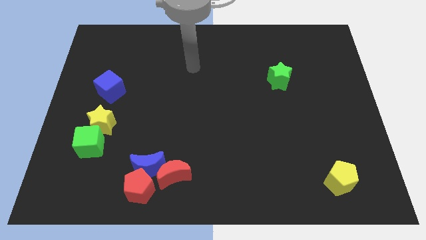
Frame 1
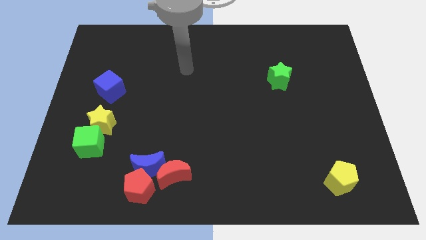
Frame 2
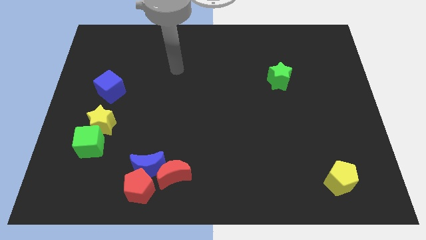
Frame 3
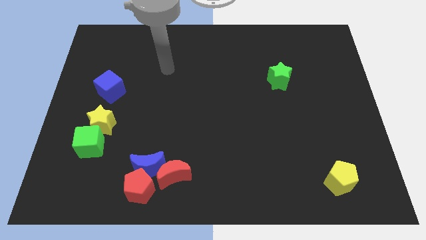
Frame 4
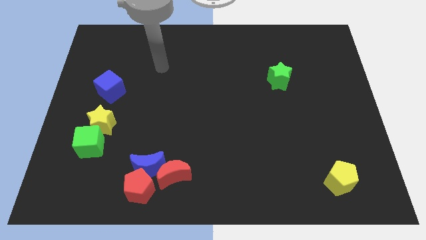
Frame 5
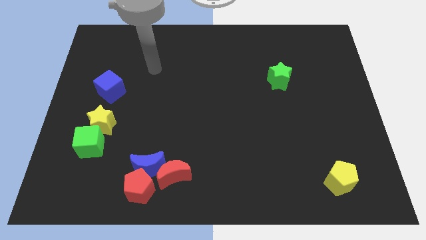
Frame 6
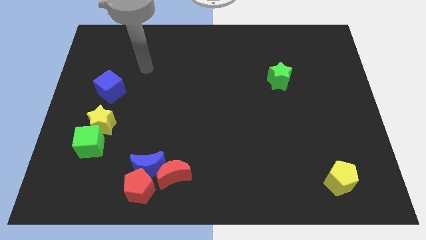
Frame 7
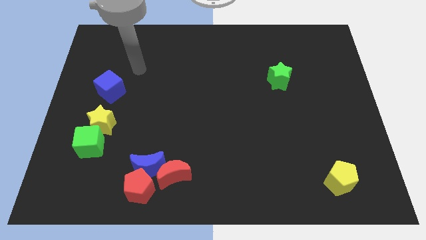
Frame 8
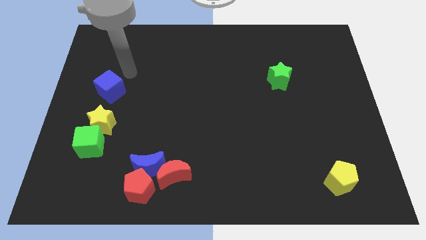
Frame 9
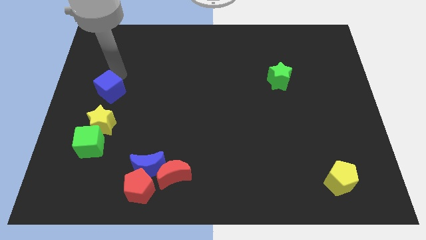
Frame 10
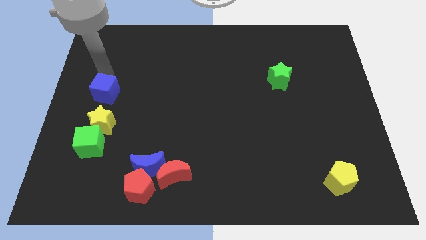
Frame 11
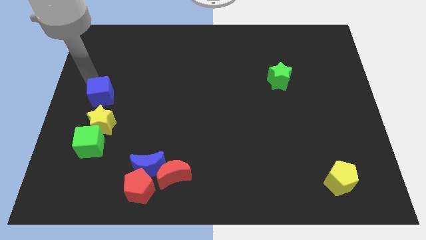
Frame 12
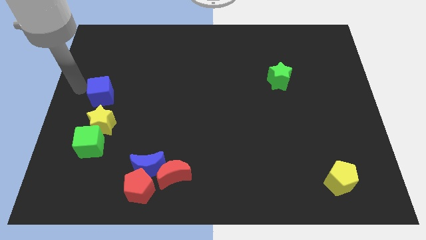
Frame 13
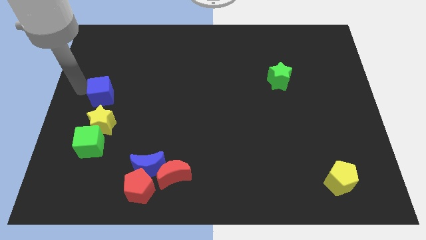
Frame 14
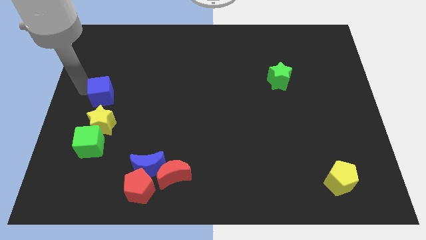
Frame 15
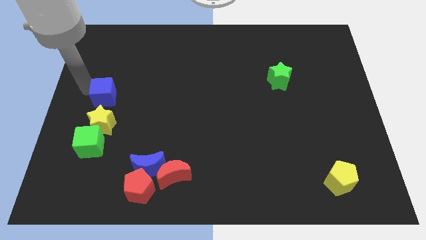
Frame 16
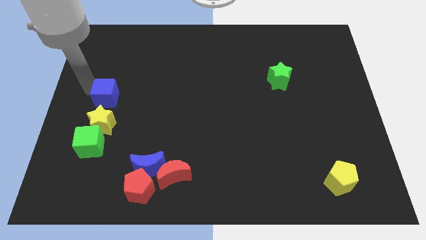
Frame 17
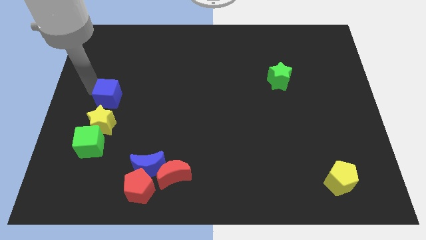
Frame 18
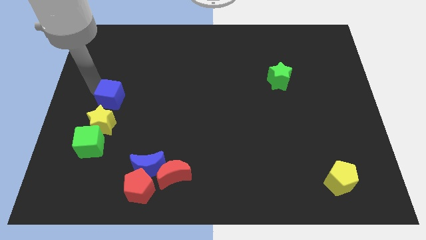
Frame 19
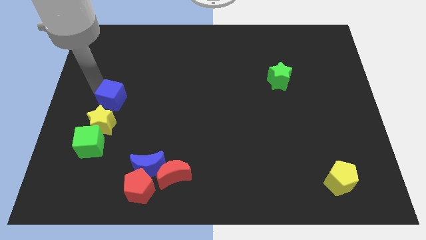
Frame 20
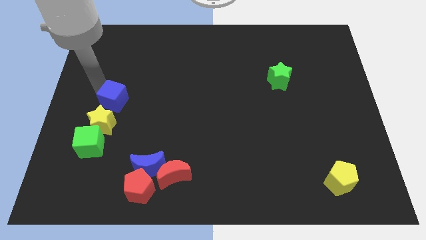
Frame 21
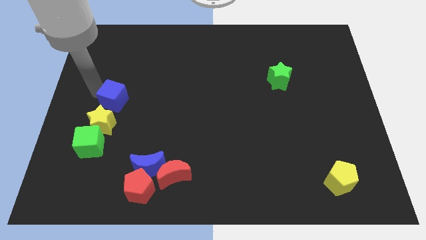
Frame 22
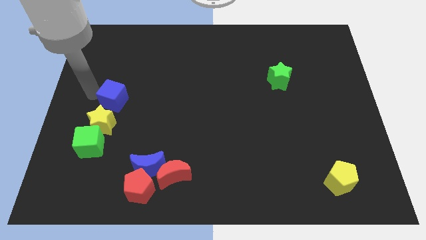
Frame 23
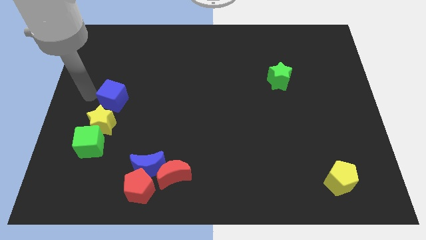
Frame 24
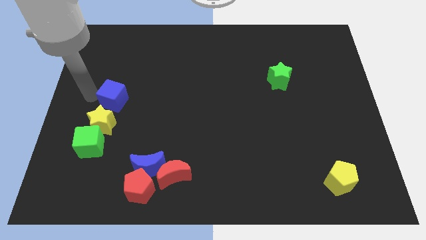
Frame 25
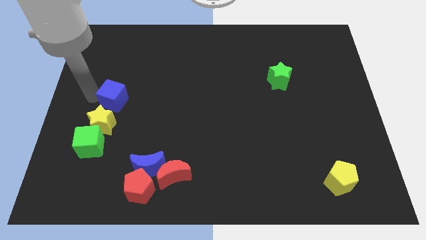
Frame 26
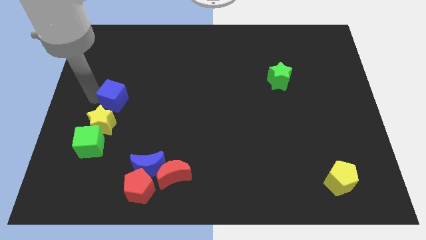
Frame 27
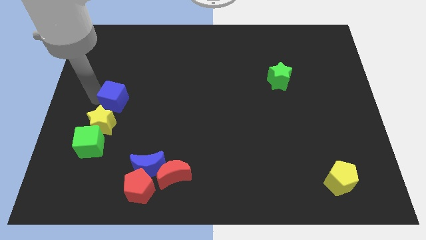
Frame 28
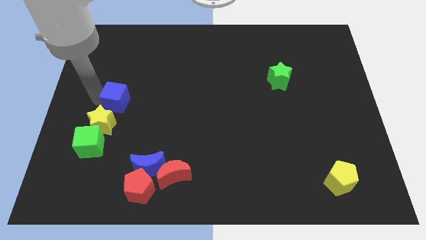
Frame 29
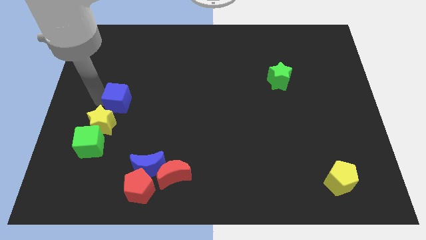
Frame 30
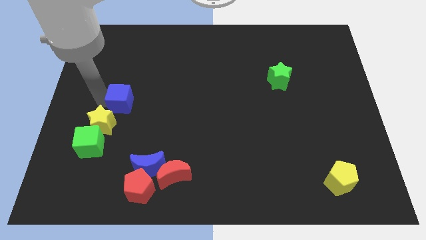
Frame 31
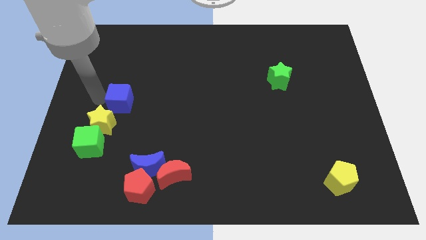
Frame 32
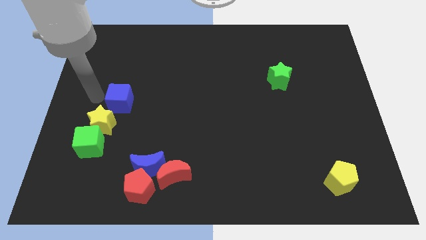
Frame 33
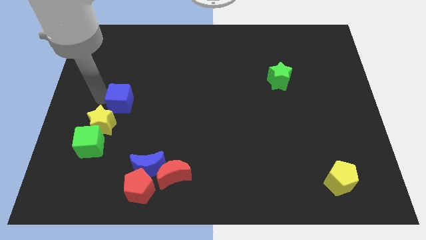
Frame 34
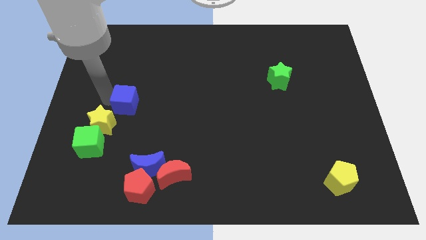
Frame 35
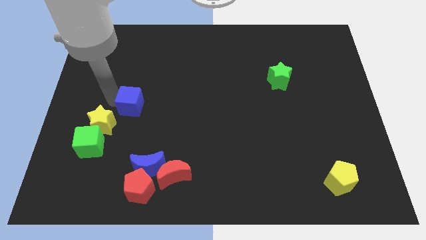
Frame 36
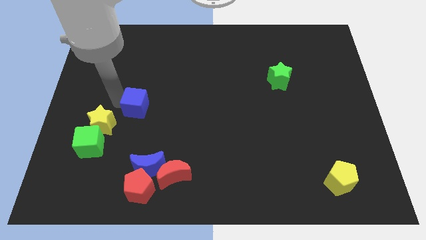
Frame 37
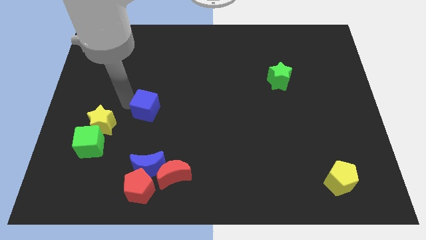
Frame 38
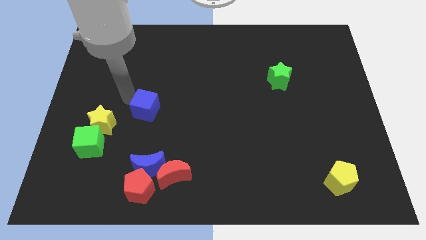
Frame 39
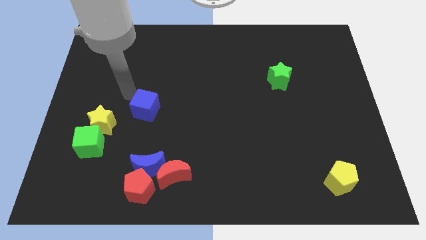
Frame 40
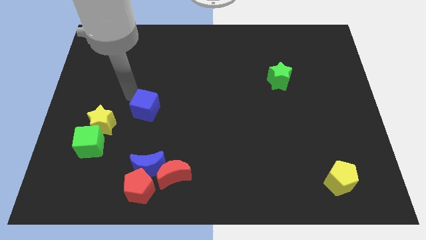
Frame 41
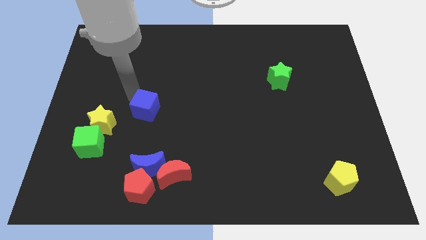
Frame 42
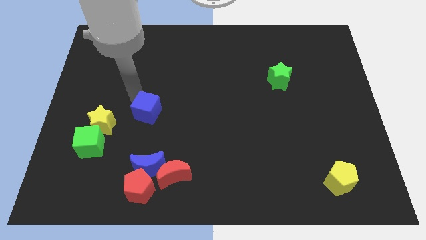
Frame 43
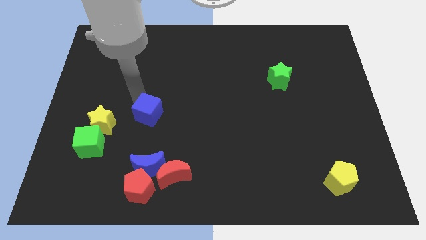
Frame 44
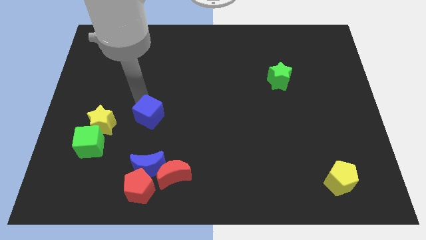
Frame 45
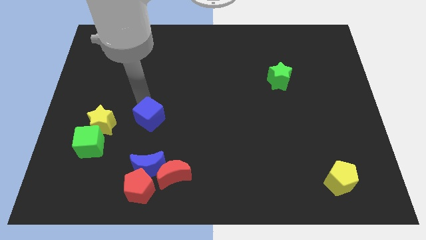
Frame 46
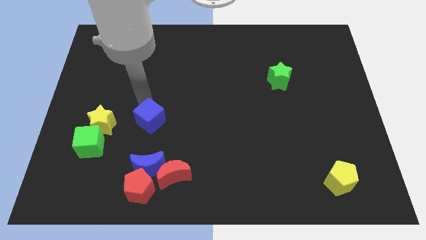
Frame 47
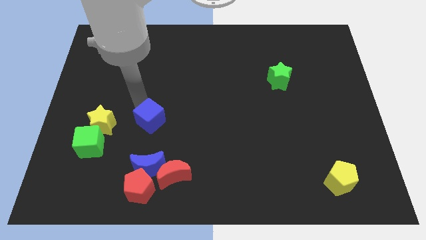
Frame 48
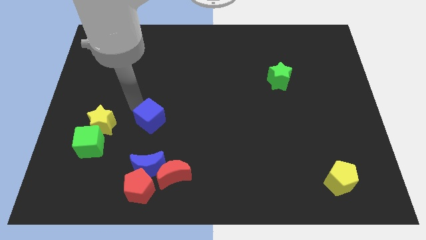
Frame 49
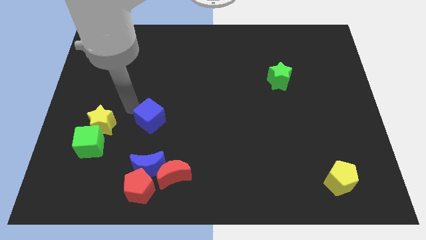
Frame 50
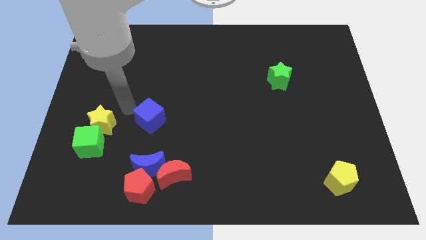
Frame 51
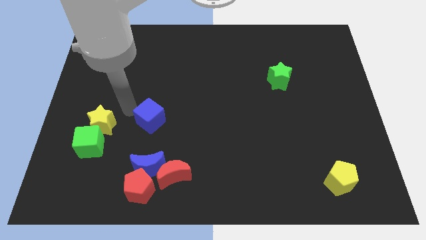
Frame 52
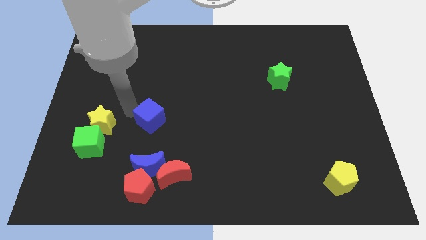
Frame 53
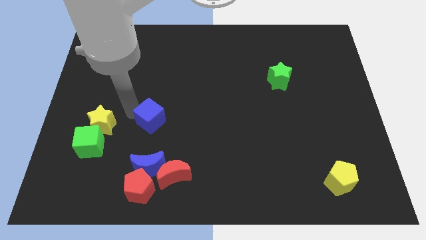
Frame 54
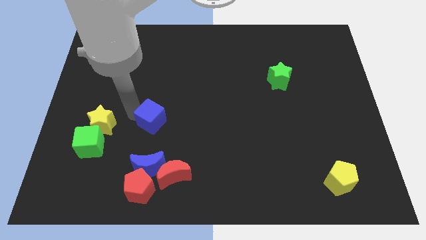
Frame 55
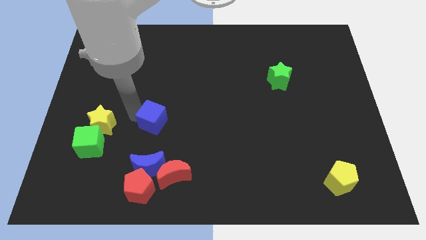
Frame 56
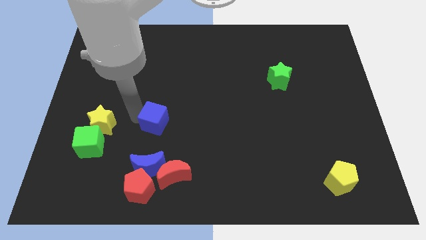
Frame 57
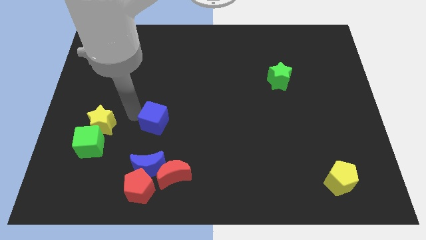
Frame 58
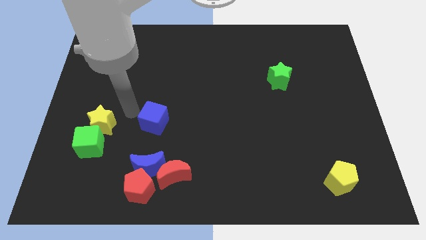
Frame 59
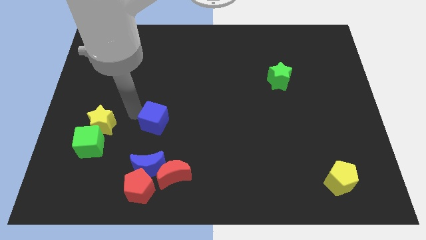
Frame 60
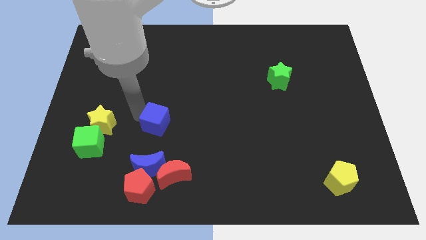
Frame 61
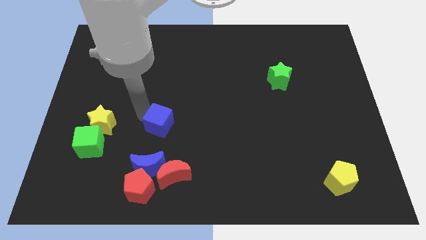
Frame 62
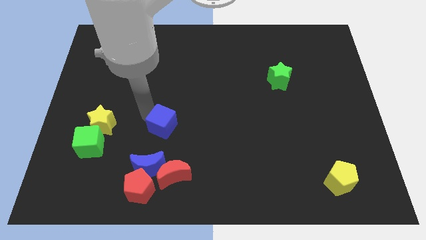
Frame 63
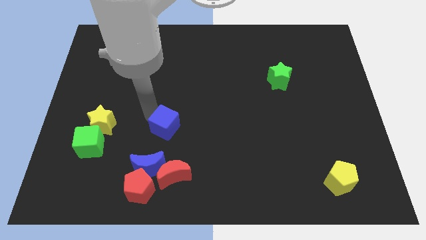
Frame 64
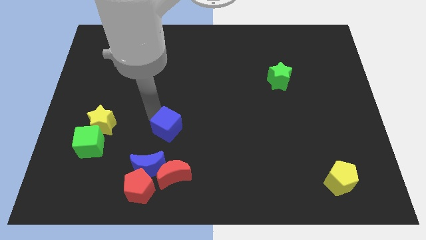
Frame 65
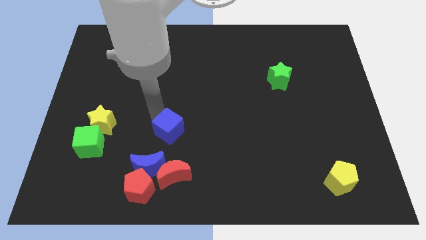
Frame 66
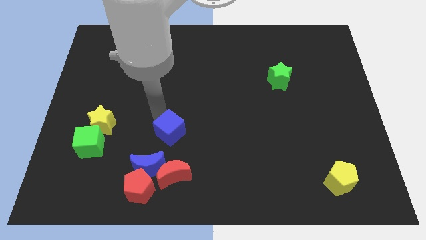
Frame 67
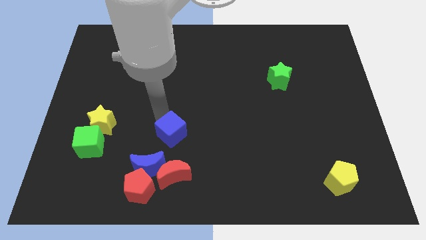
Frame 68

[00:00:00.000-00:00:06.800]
slide the blue cube diagonally down and right

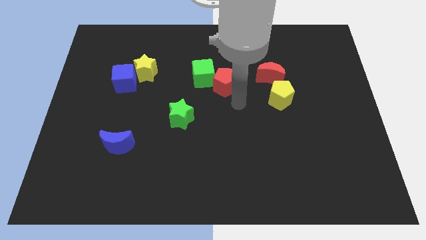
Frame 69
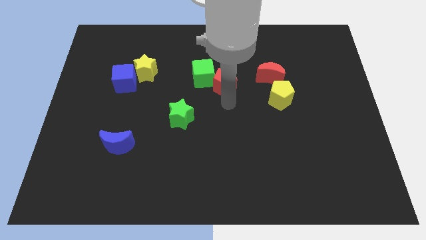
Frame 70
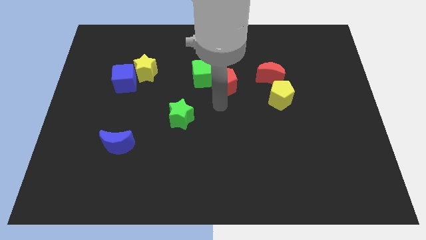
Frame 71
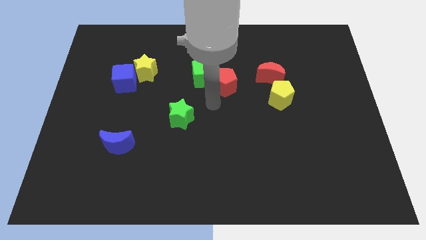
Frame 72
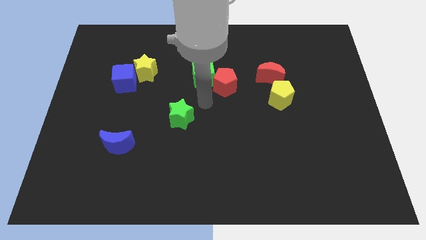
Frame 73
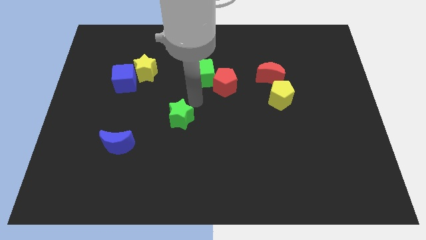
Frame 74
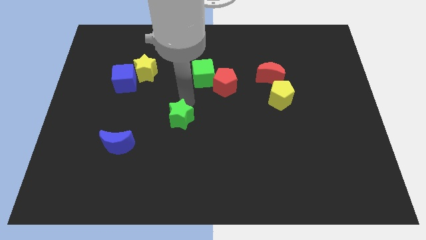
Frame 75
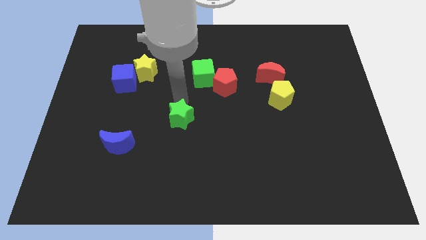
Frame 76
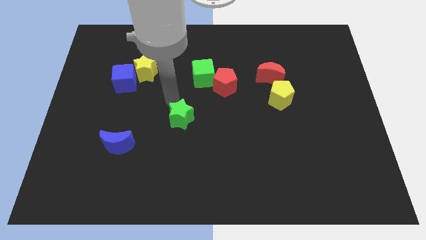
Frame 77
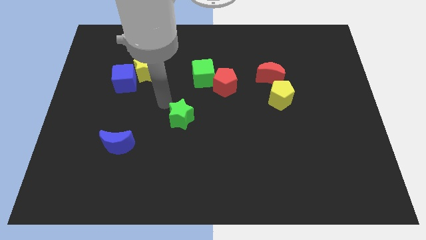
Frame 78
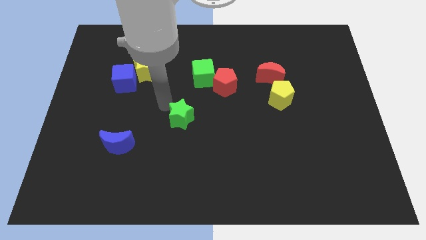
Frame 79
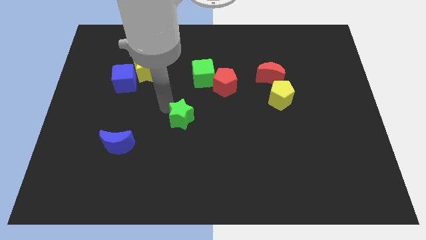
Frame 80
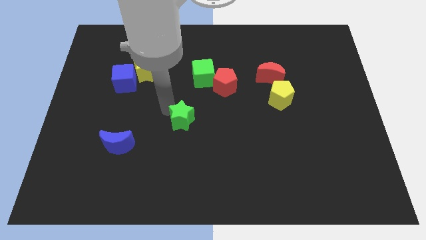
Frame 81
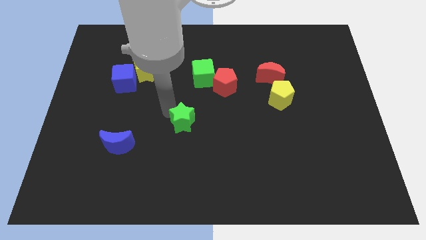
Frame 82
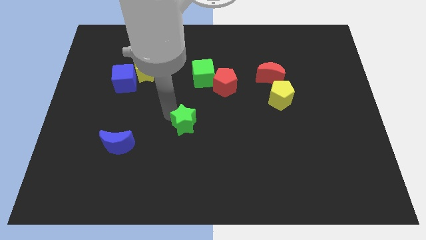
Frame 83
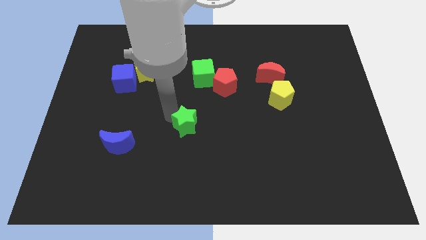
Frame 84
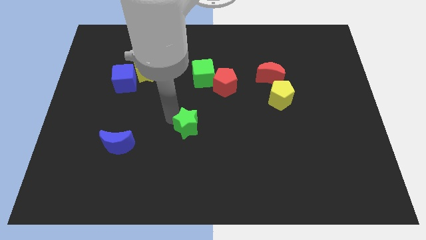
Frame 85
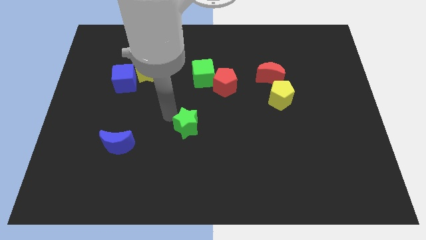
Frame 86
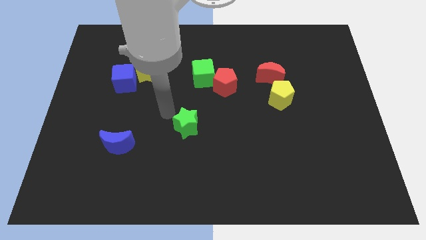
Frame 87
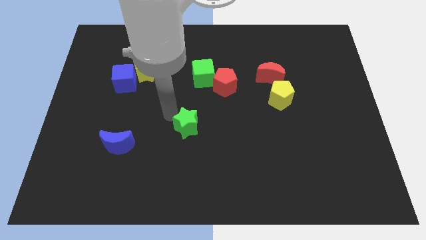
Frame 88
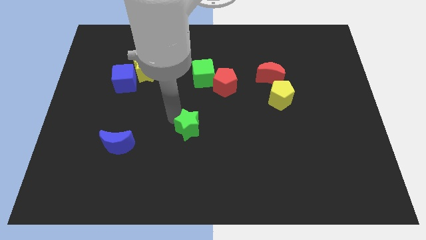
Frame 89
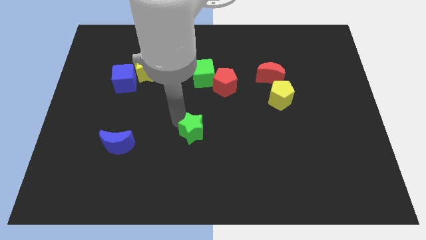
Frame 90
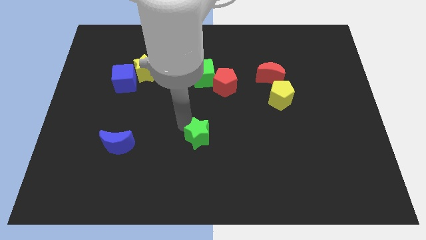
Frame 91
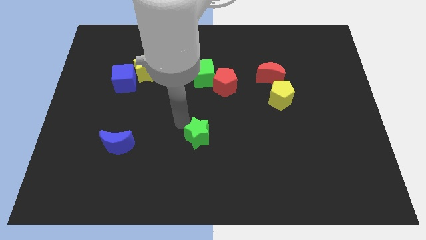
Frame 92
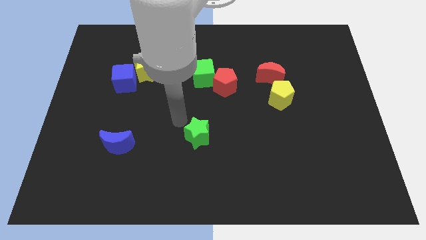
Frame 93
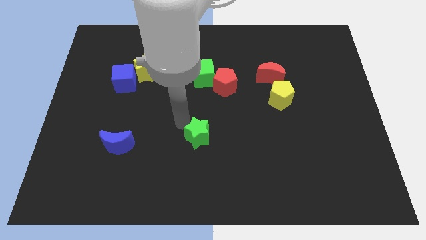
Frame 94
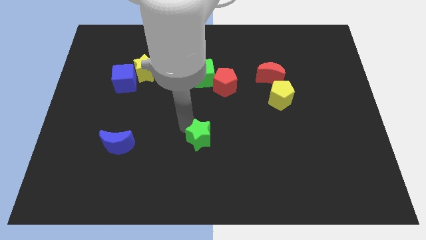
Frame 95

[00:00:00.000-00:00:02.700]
slide the green star downwards and then to the right a little
